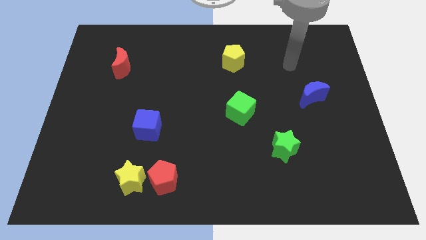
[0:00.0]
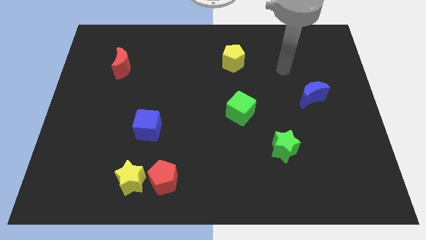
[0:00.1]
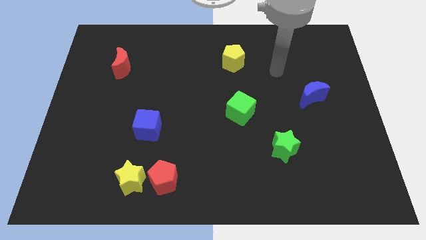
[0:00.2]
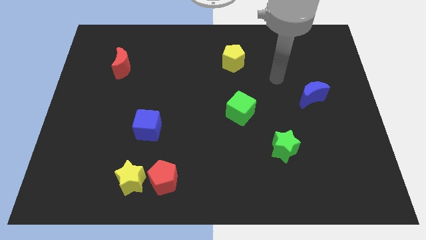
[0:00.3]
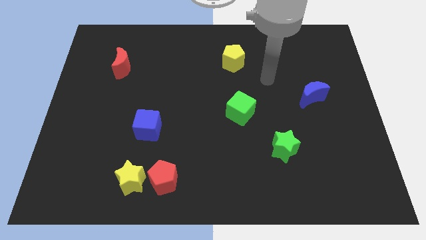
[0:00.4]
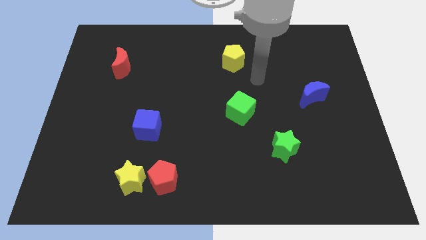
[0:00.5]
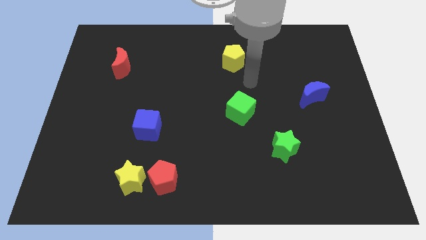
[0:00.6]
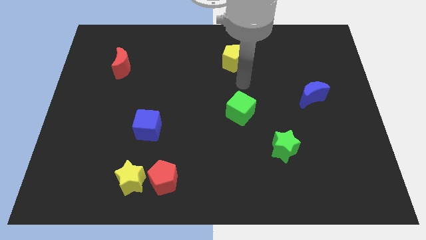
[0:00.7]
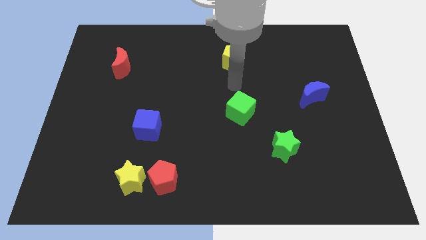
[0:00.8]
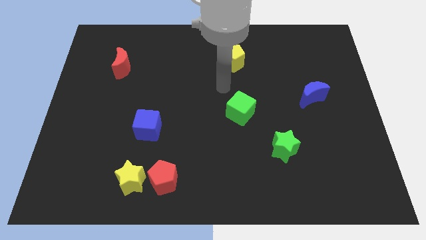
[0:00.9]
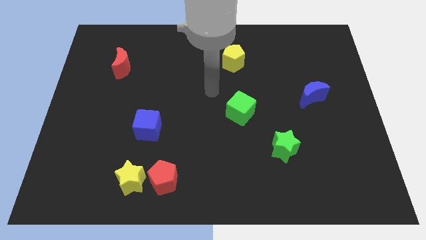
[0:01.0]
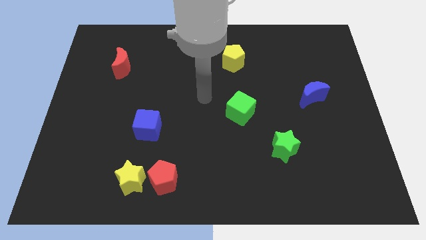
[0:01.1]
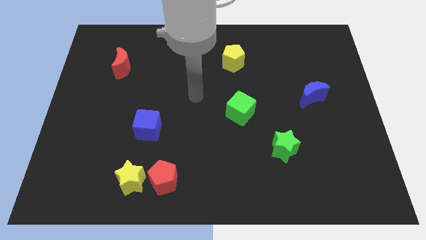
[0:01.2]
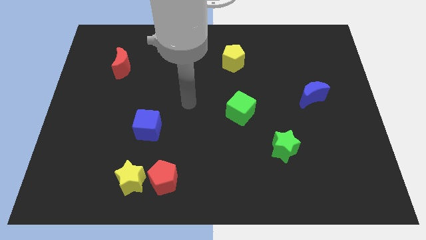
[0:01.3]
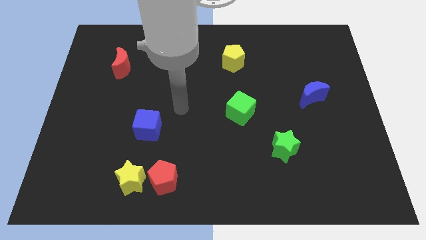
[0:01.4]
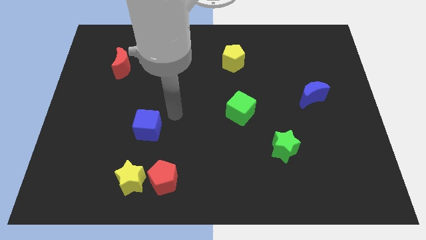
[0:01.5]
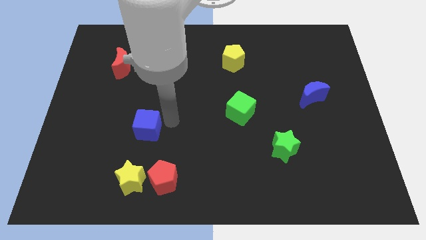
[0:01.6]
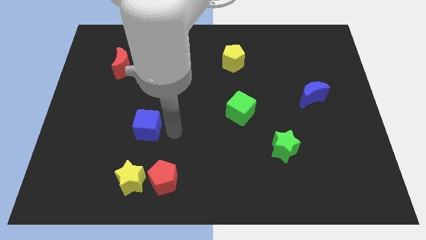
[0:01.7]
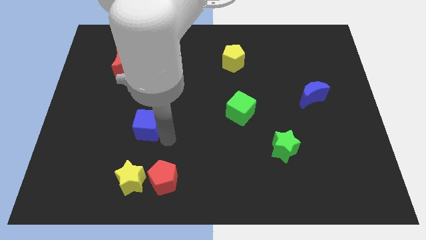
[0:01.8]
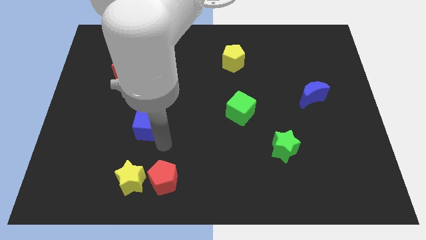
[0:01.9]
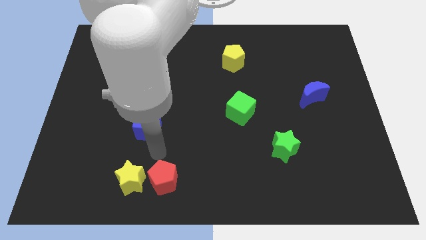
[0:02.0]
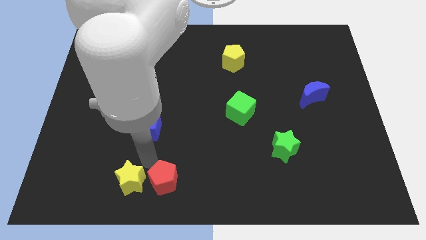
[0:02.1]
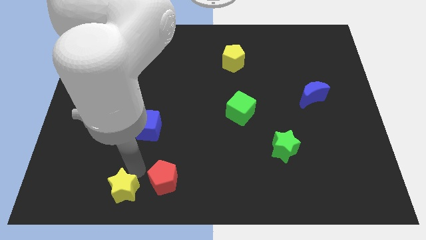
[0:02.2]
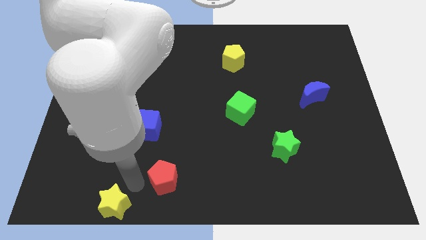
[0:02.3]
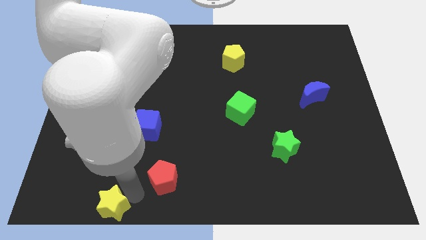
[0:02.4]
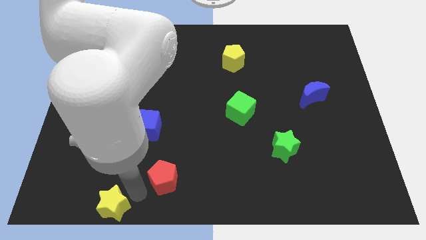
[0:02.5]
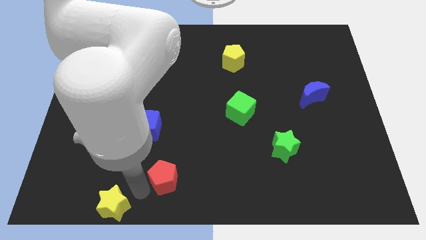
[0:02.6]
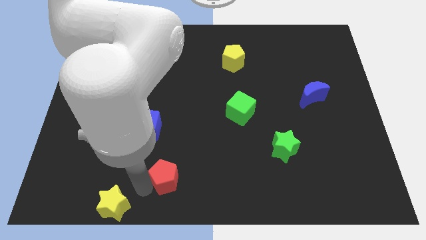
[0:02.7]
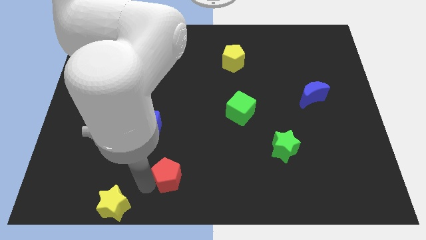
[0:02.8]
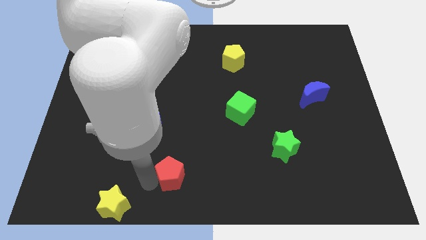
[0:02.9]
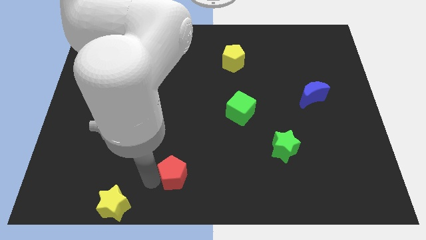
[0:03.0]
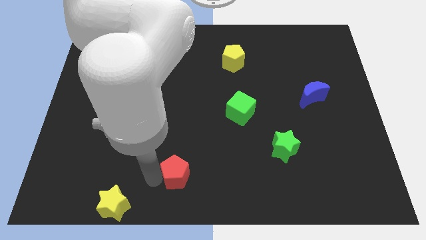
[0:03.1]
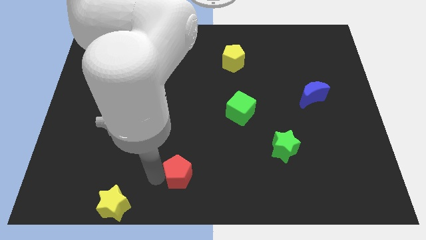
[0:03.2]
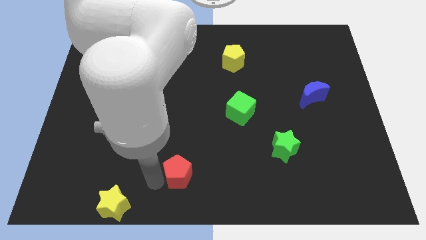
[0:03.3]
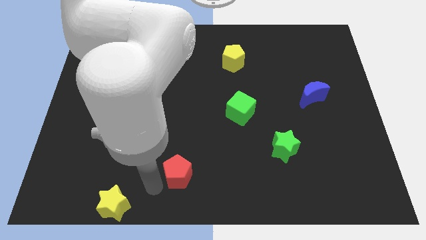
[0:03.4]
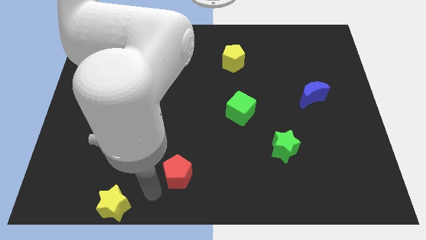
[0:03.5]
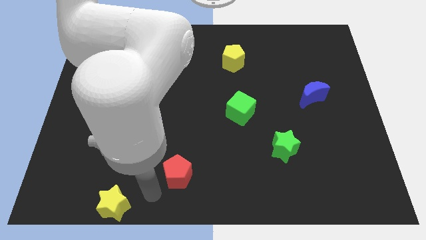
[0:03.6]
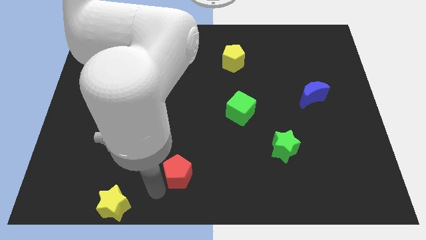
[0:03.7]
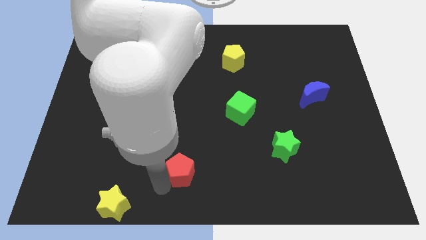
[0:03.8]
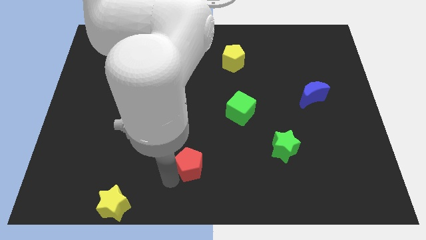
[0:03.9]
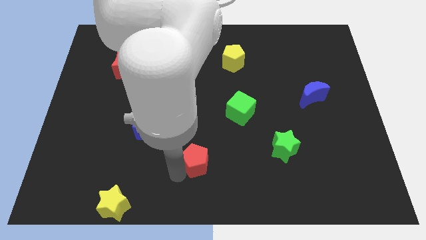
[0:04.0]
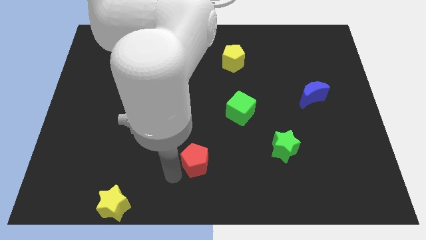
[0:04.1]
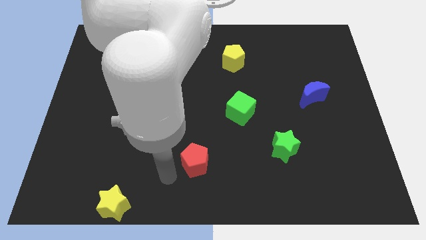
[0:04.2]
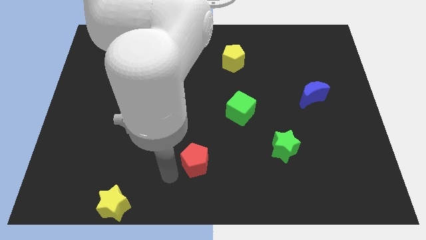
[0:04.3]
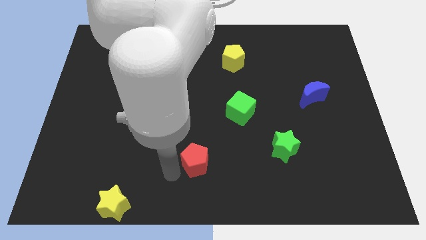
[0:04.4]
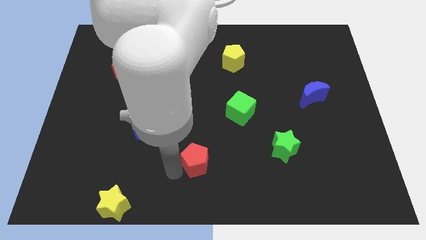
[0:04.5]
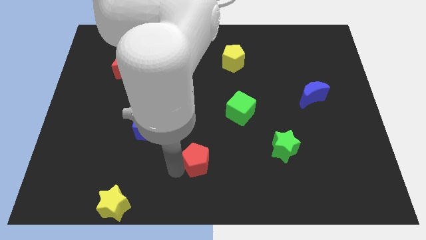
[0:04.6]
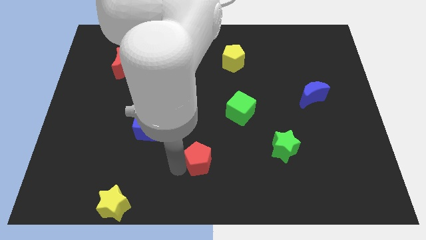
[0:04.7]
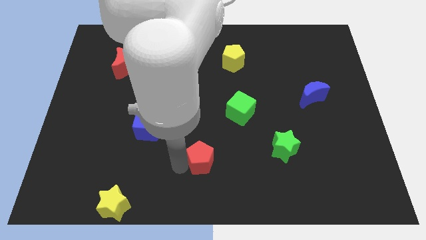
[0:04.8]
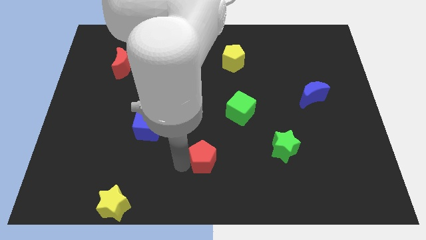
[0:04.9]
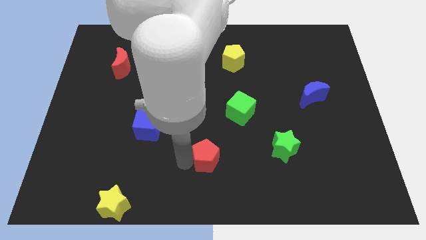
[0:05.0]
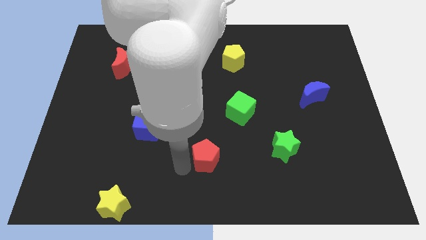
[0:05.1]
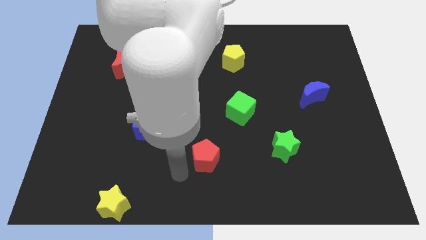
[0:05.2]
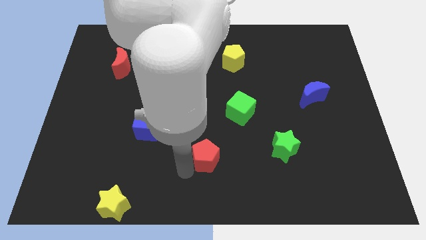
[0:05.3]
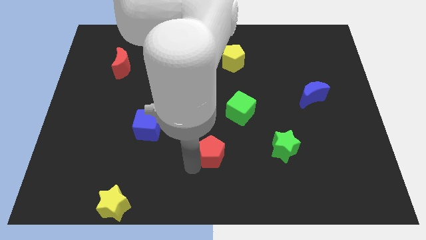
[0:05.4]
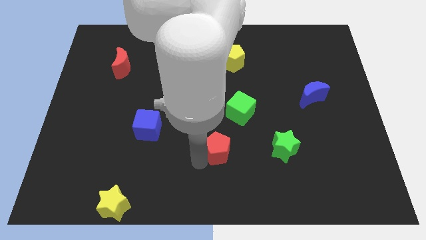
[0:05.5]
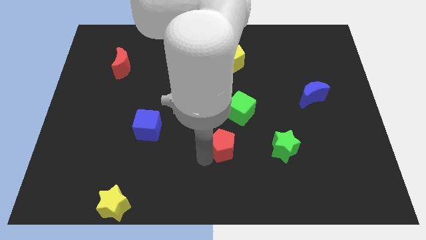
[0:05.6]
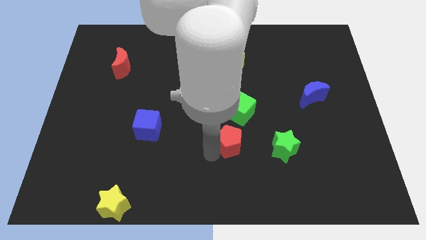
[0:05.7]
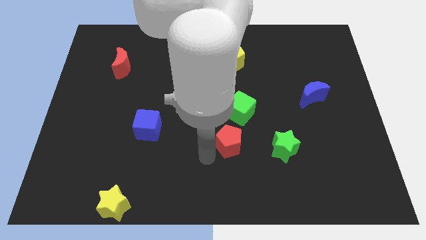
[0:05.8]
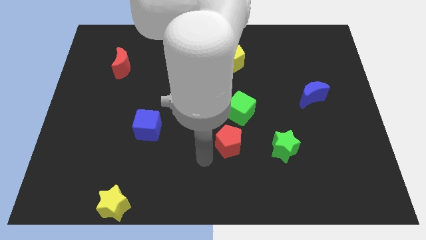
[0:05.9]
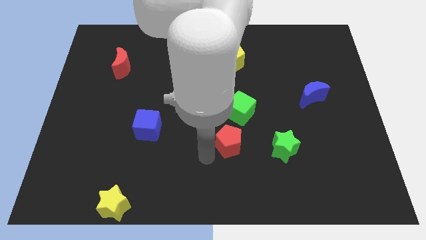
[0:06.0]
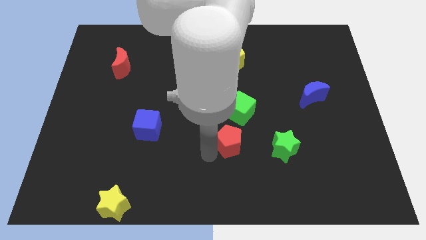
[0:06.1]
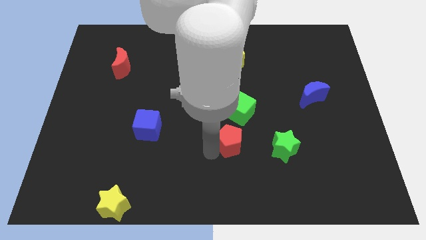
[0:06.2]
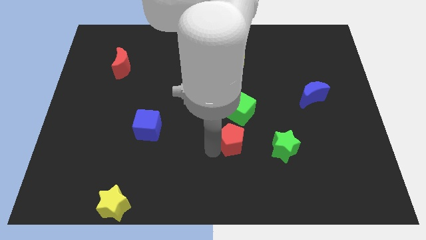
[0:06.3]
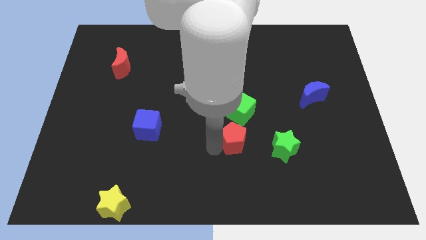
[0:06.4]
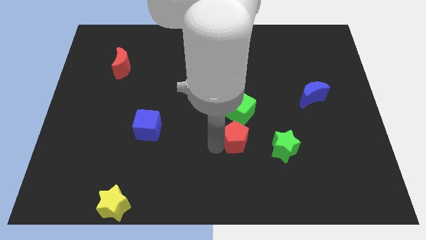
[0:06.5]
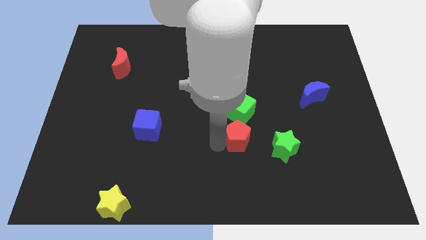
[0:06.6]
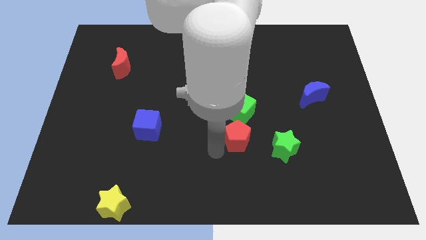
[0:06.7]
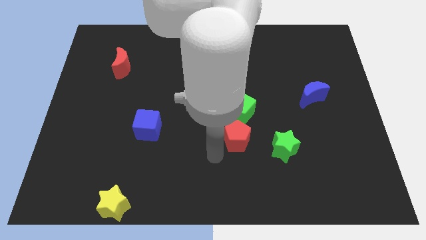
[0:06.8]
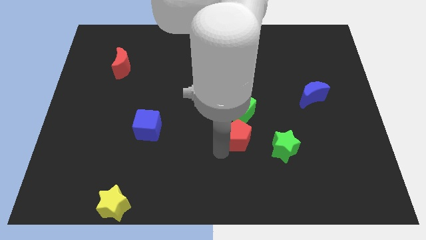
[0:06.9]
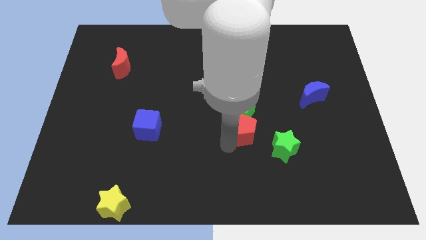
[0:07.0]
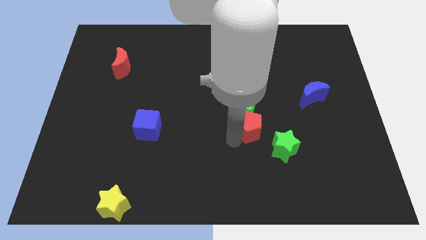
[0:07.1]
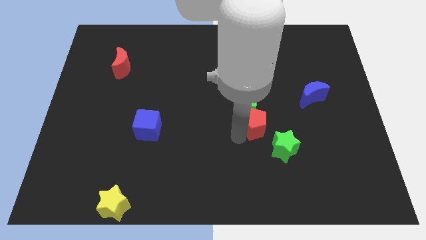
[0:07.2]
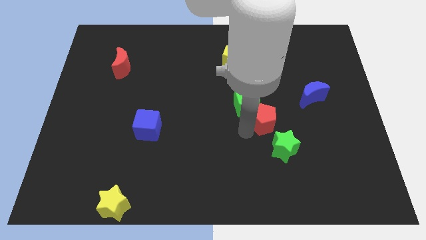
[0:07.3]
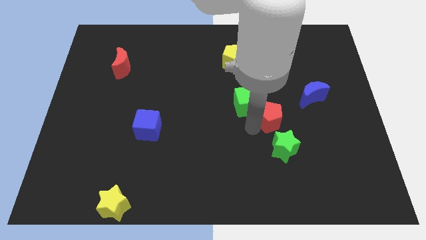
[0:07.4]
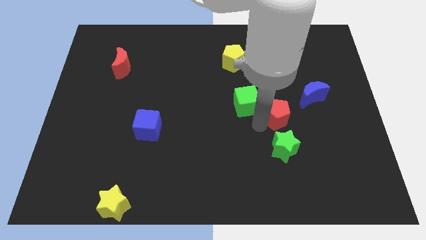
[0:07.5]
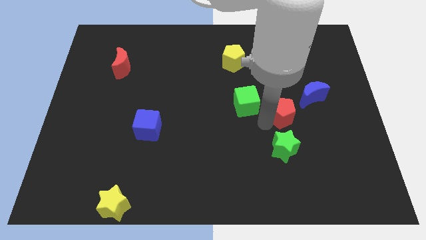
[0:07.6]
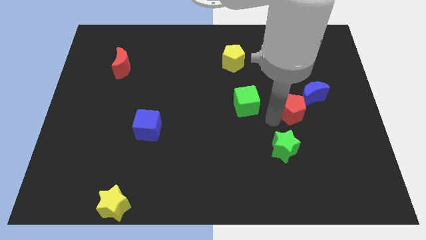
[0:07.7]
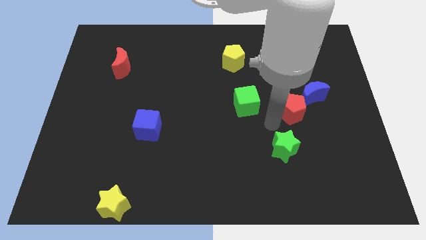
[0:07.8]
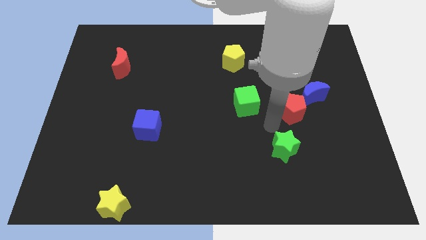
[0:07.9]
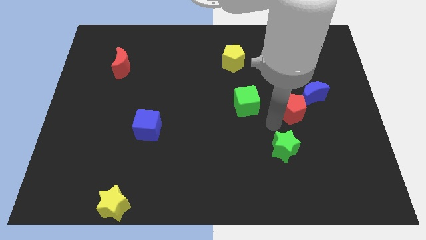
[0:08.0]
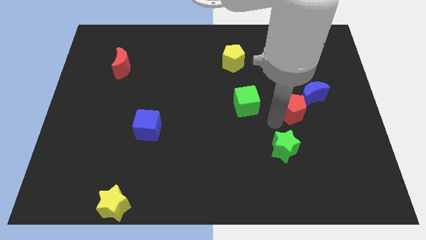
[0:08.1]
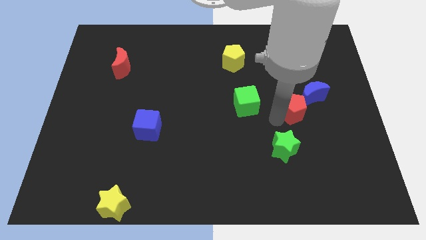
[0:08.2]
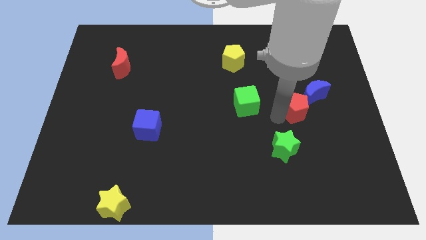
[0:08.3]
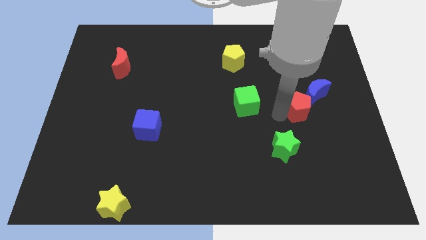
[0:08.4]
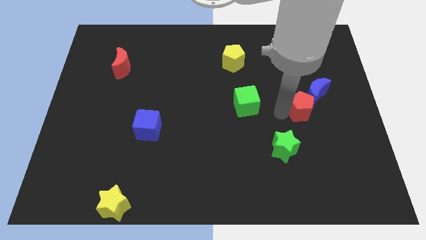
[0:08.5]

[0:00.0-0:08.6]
put the red pentagon to the blue moon
